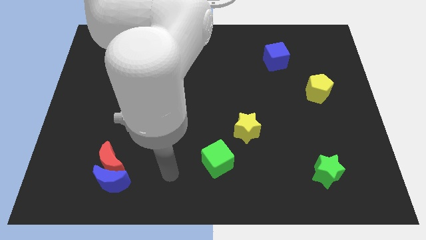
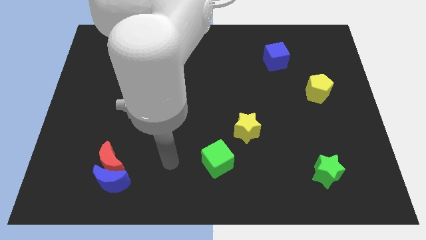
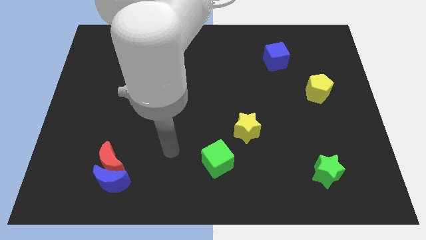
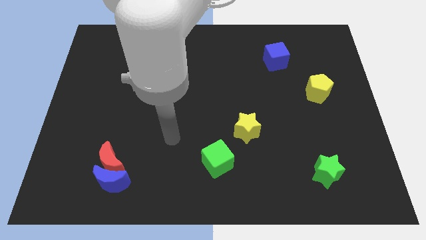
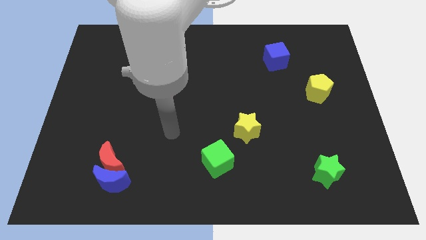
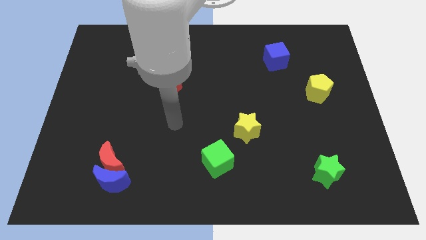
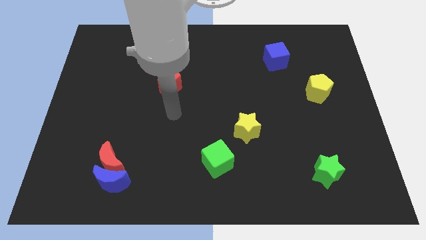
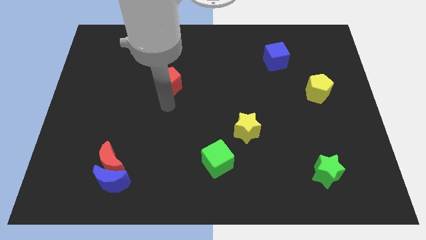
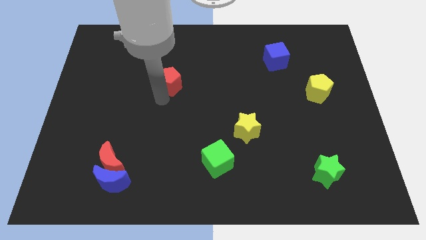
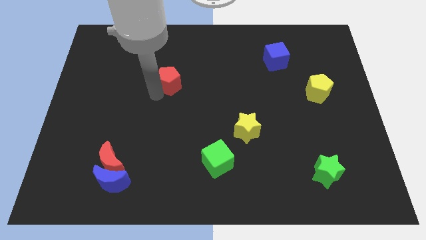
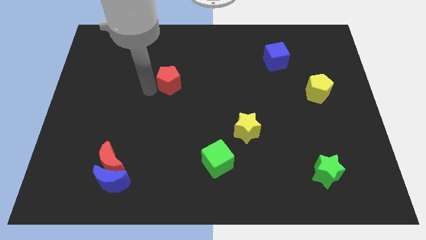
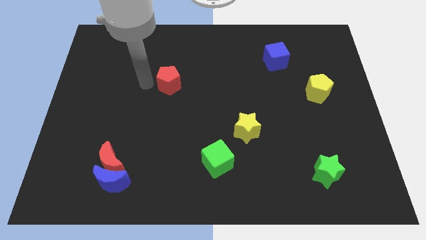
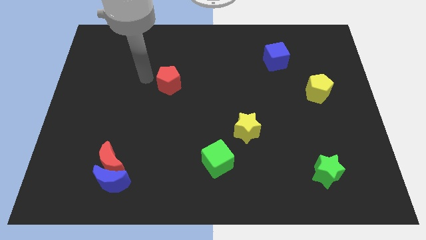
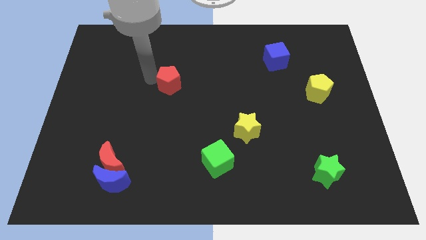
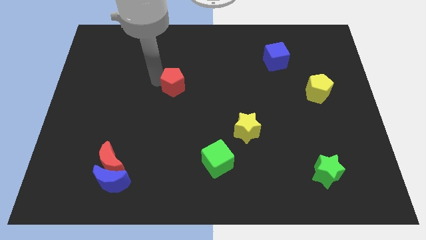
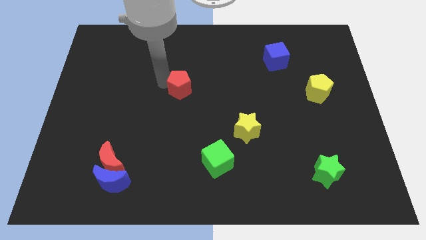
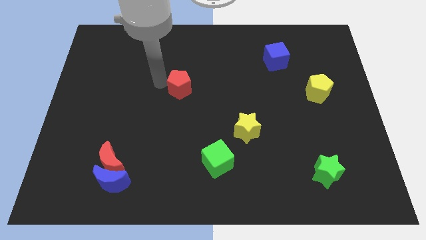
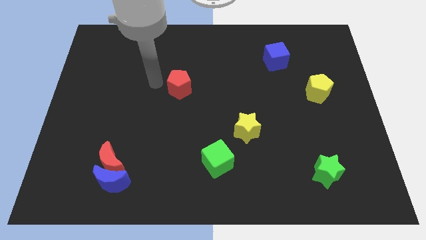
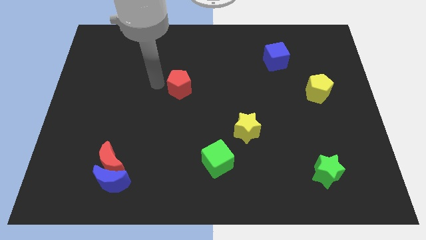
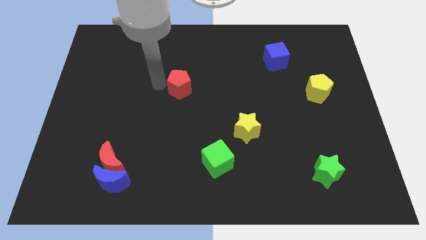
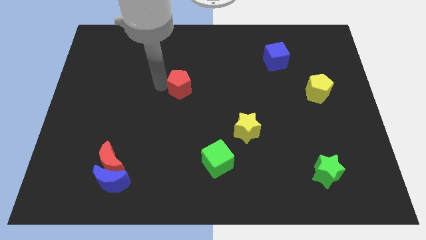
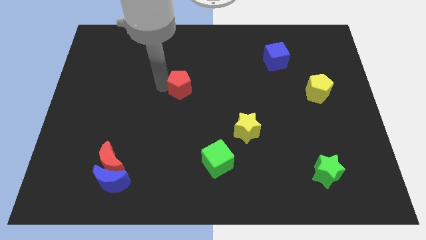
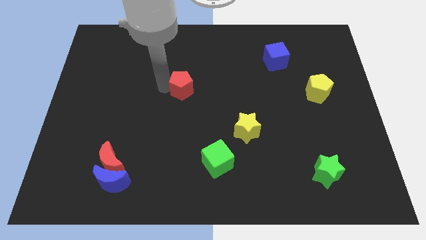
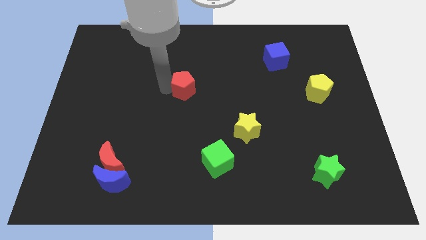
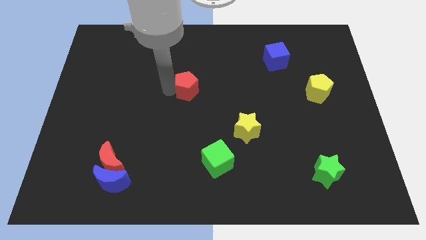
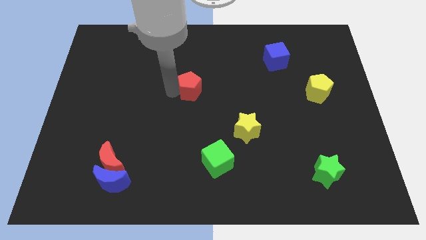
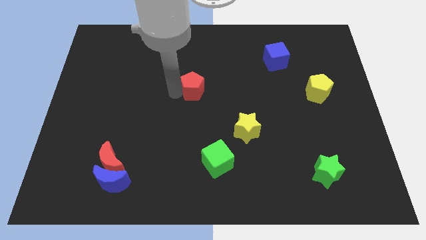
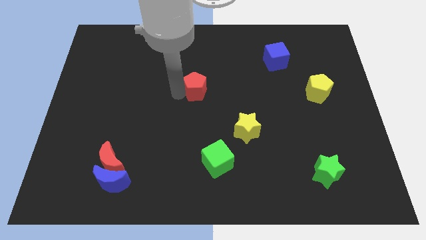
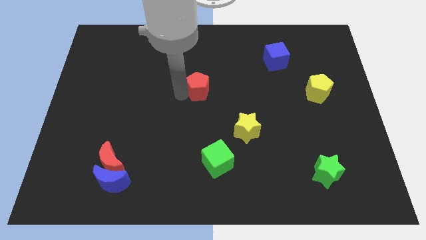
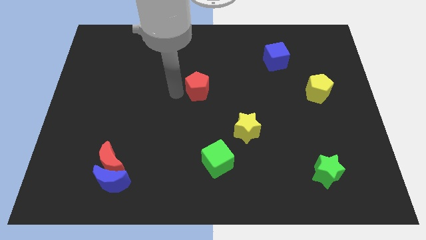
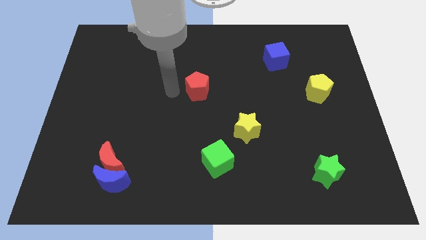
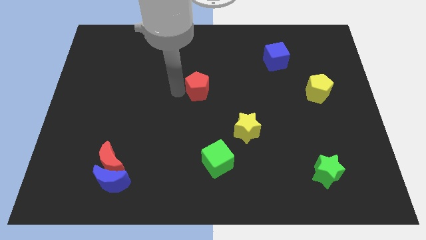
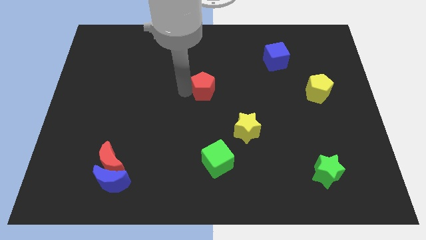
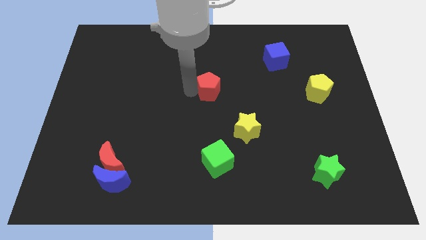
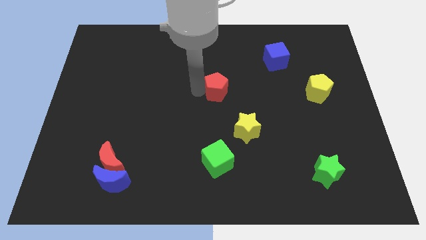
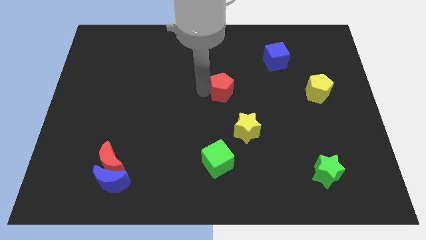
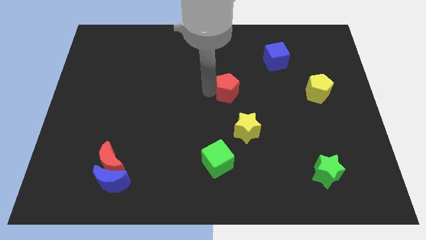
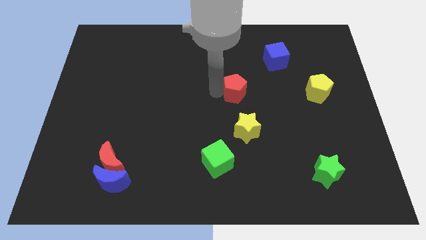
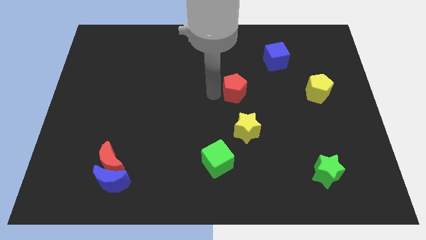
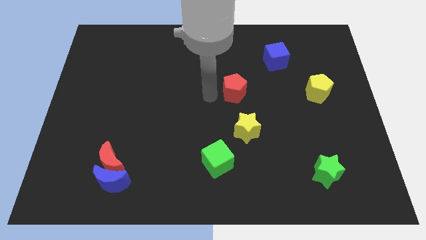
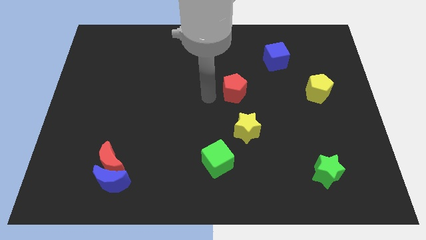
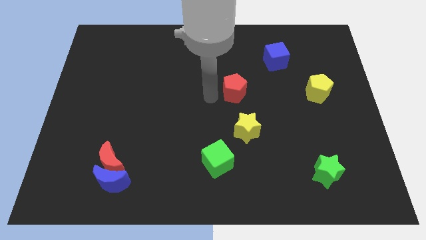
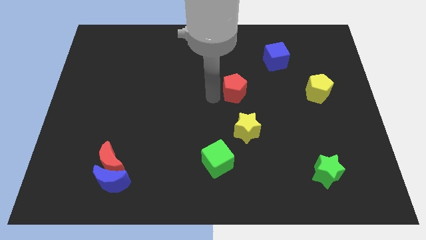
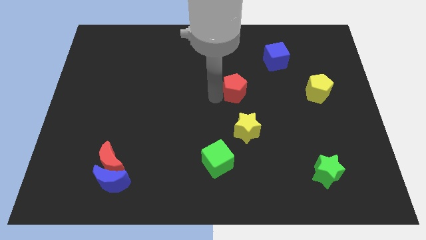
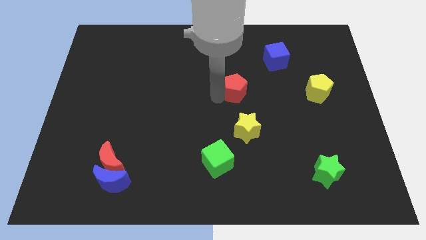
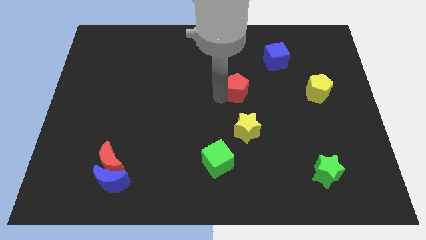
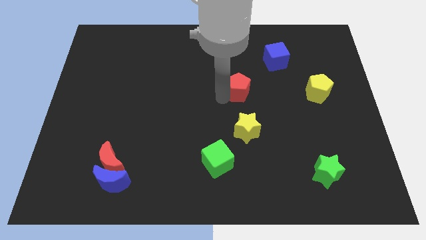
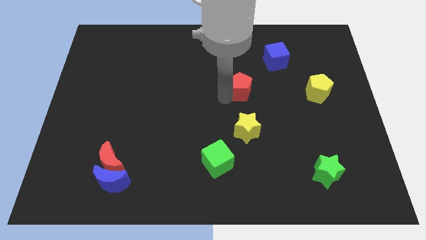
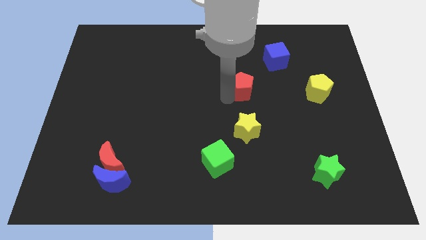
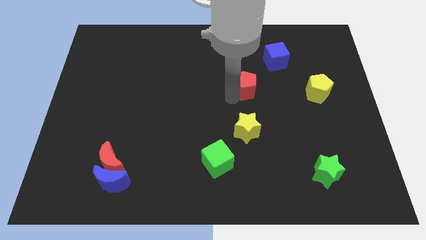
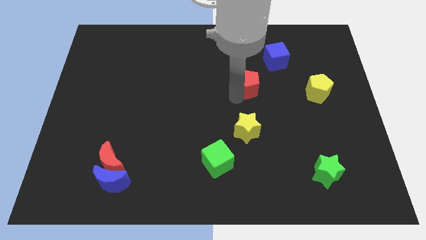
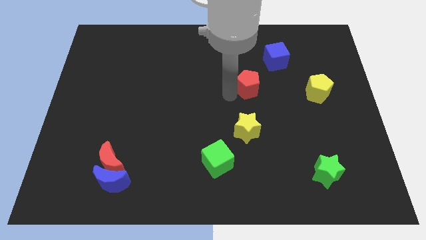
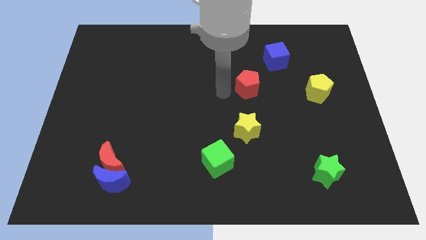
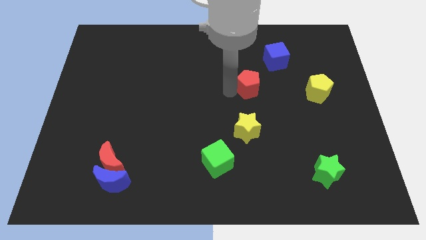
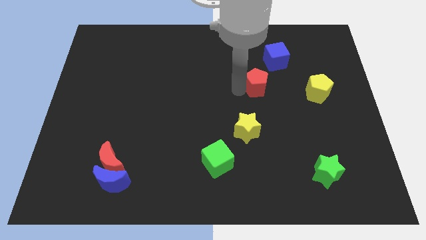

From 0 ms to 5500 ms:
push the red pentagon to the right

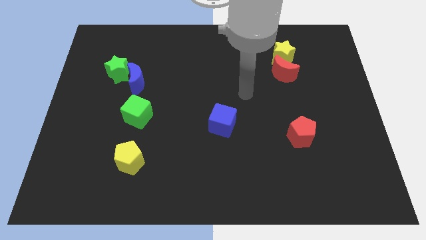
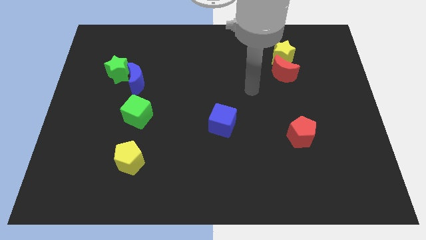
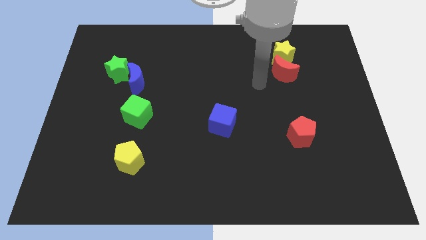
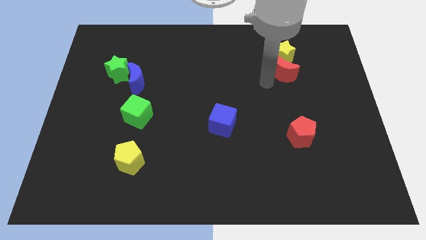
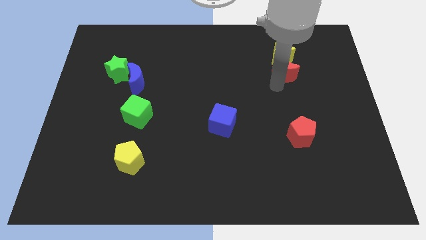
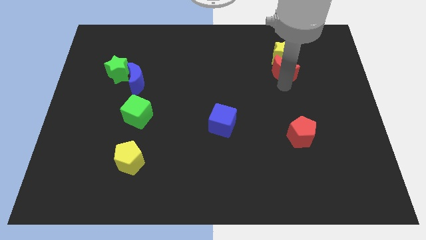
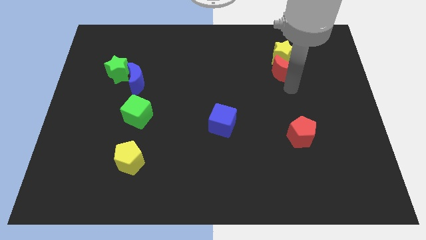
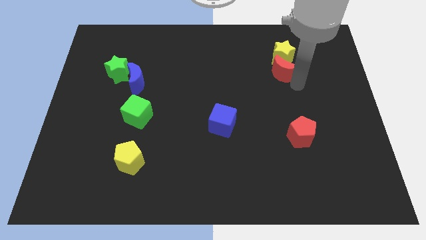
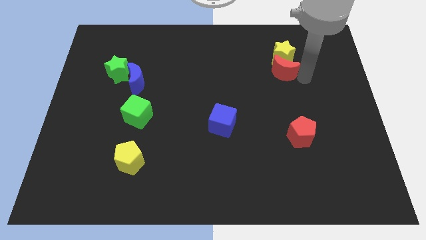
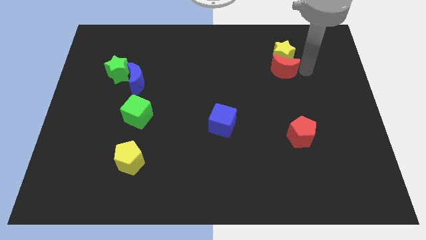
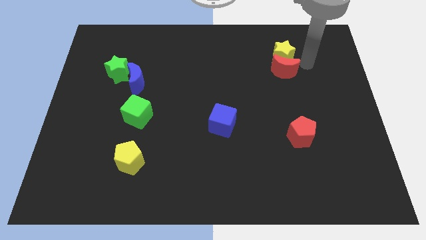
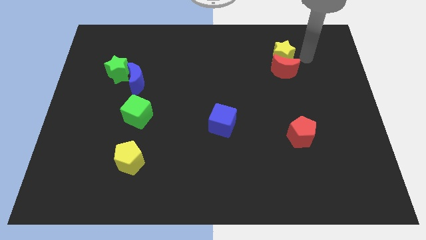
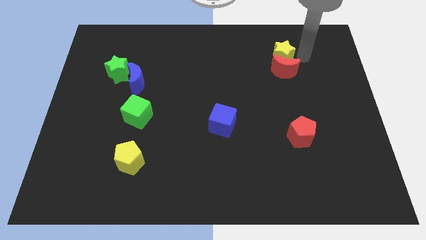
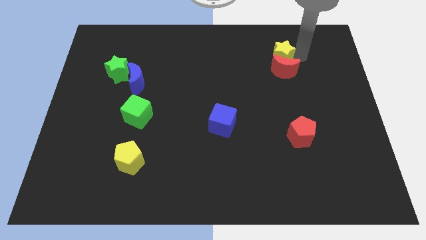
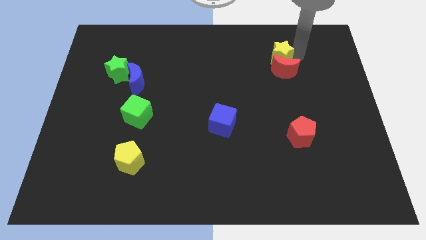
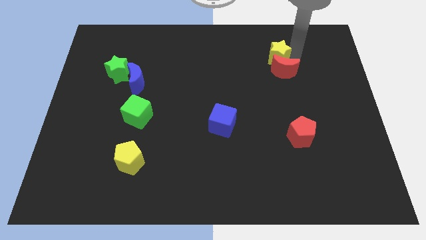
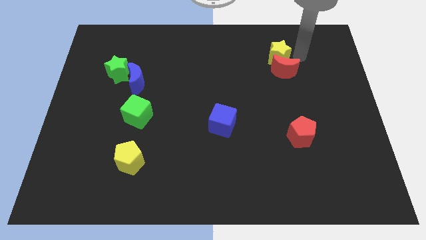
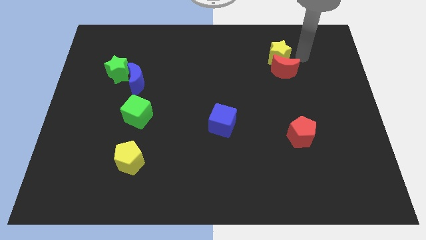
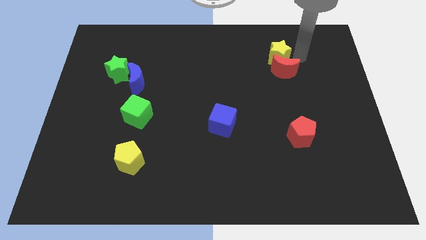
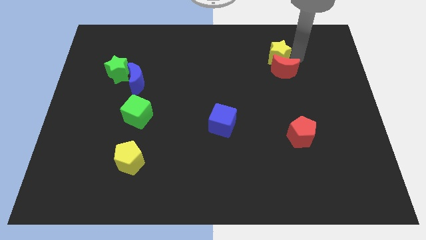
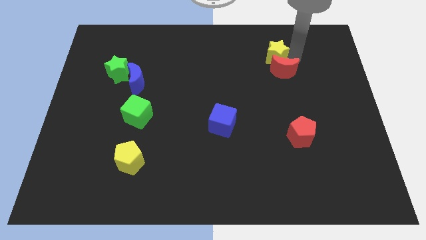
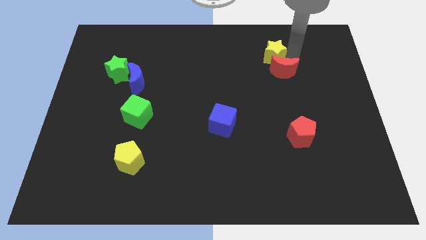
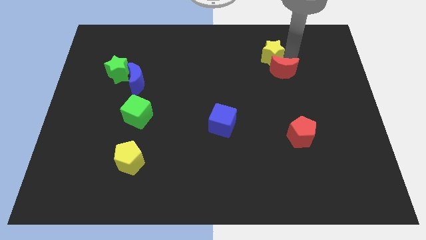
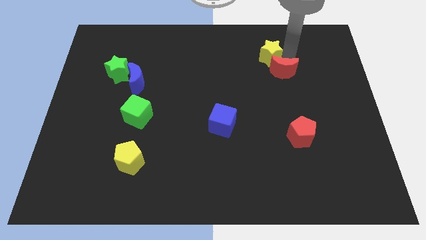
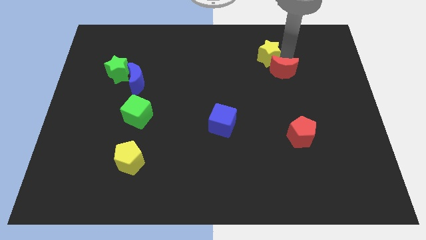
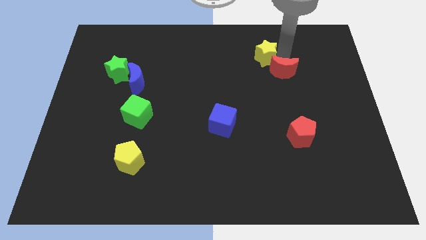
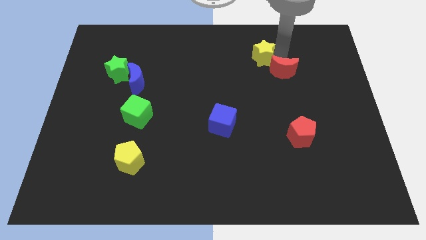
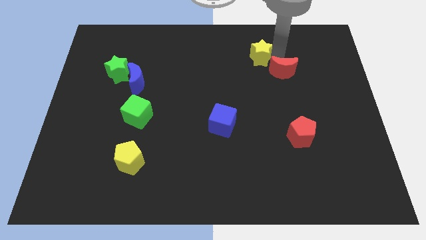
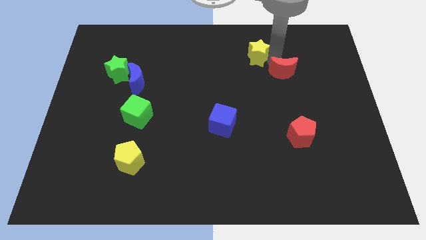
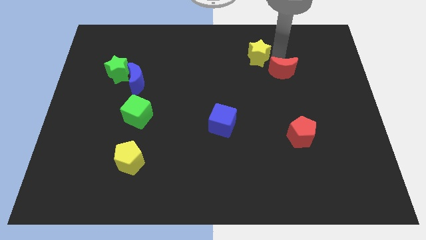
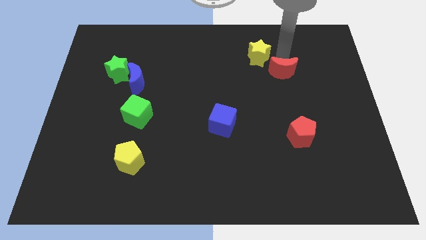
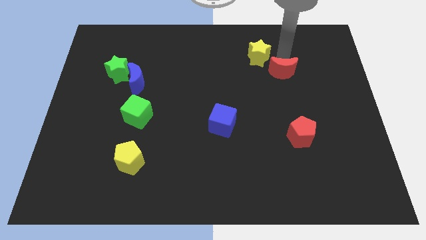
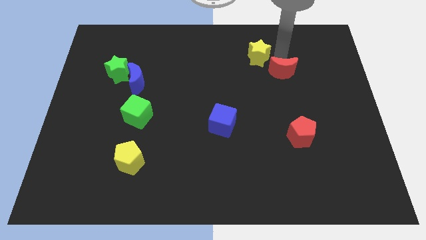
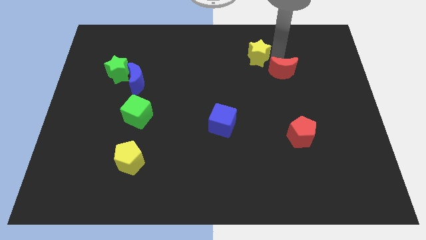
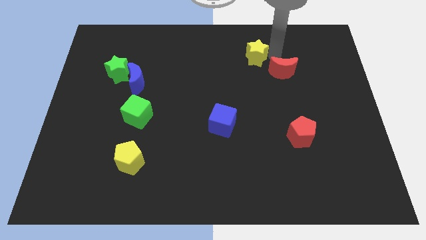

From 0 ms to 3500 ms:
move the yellow star a little bit left
